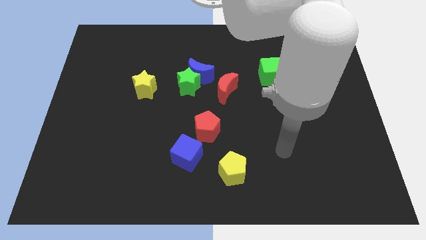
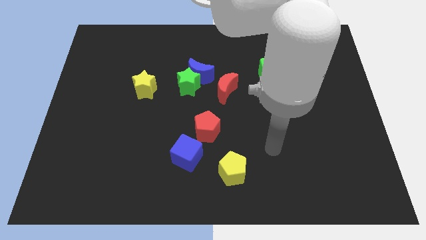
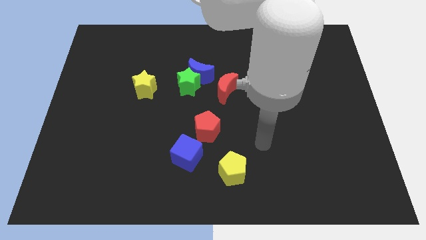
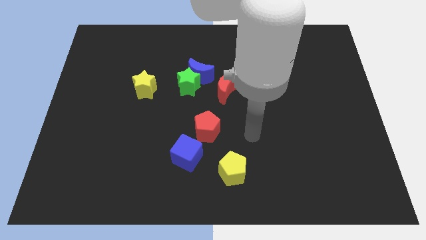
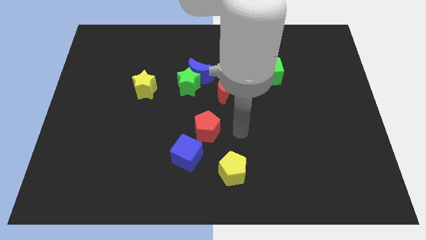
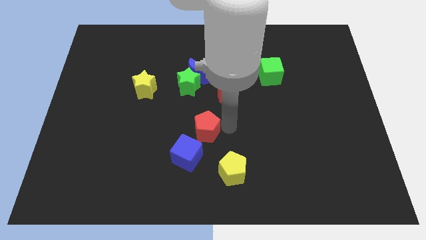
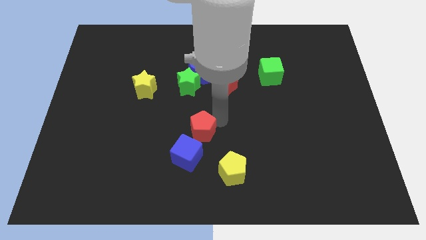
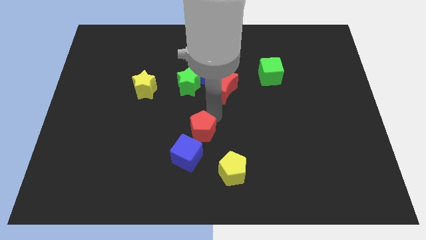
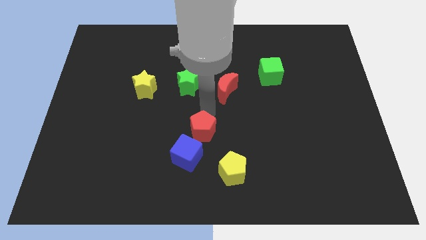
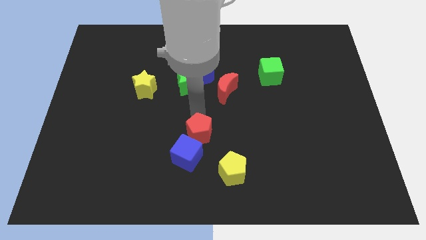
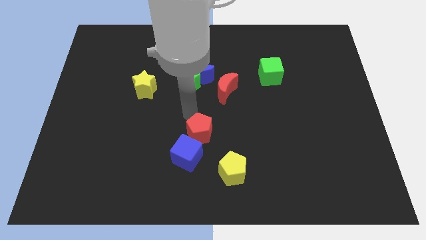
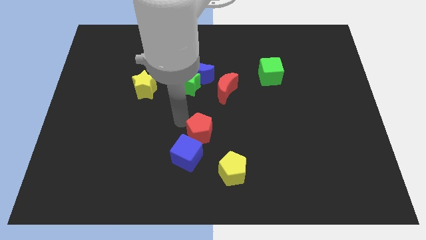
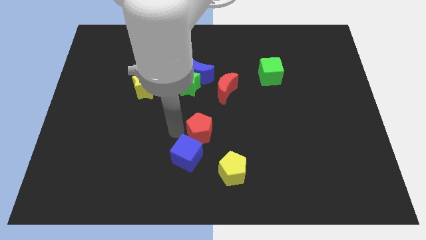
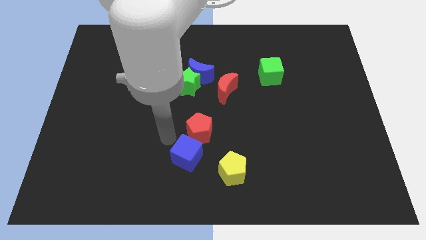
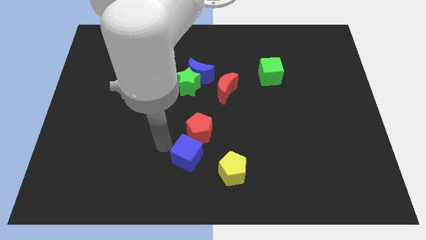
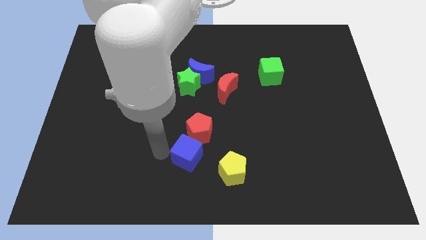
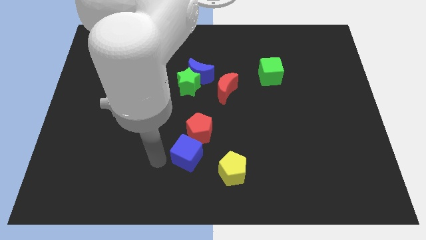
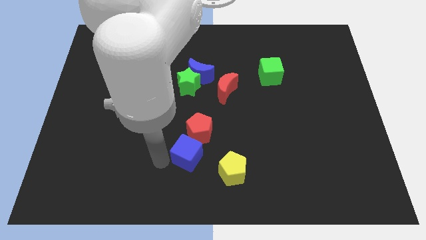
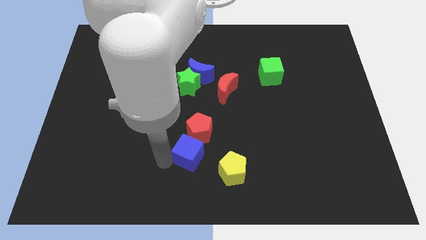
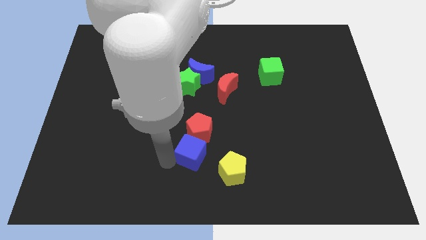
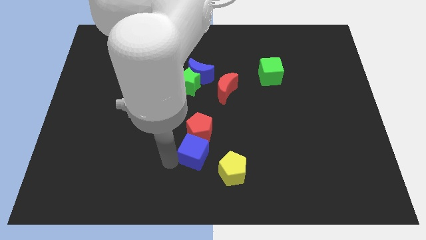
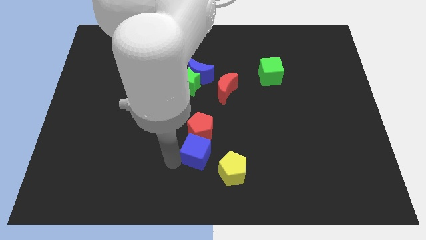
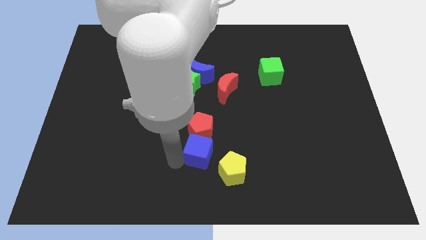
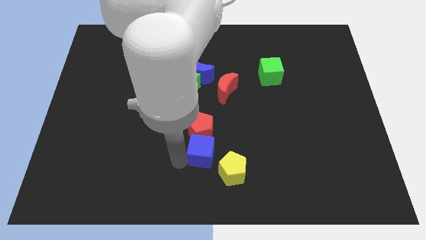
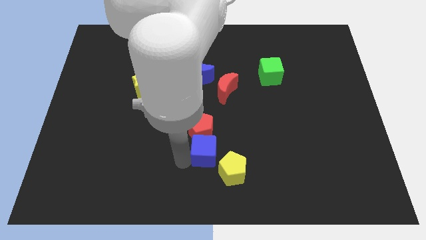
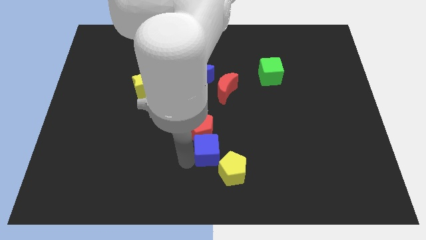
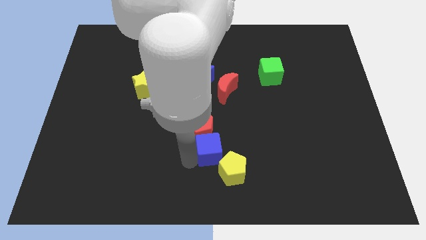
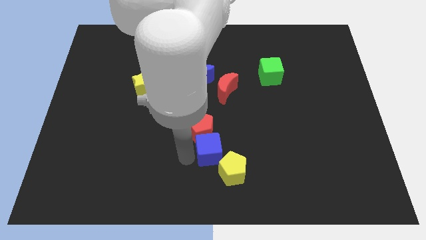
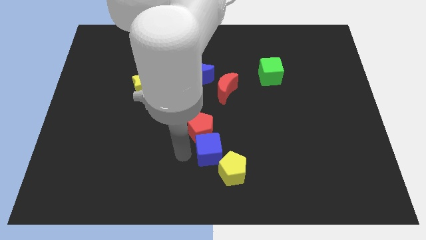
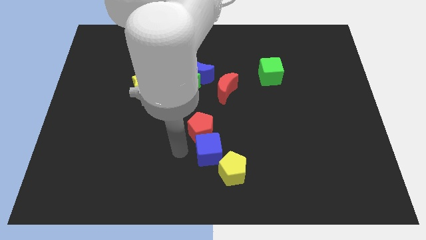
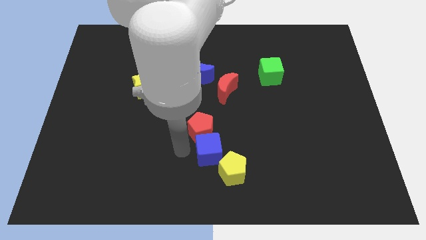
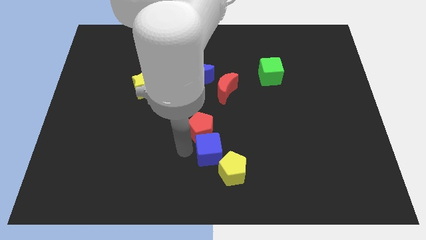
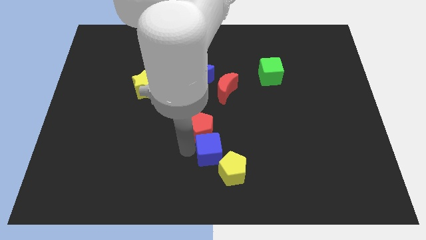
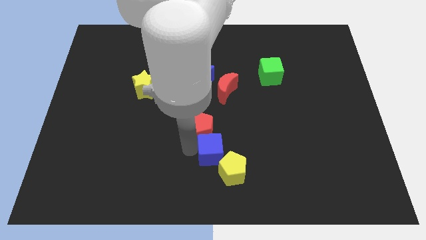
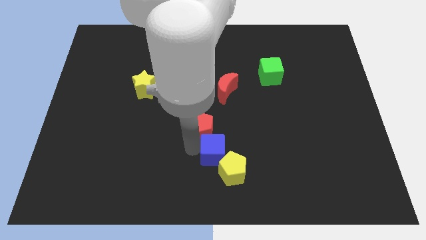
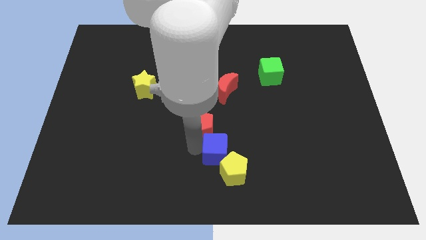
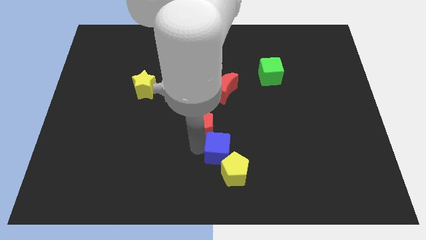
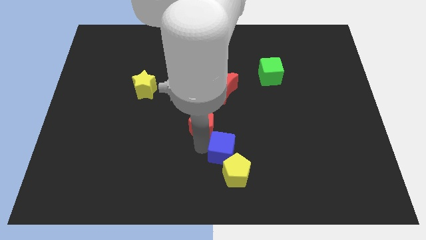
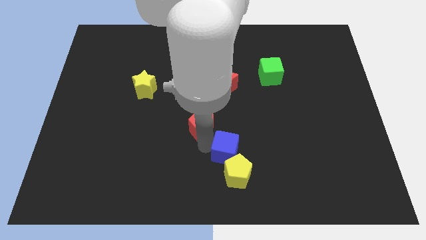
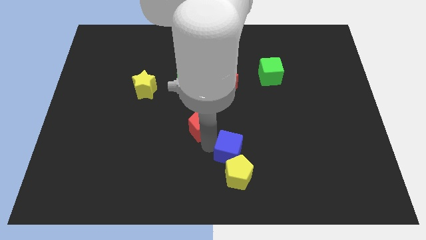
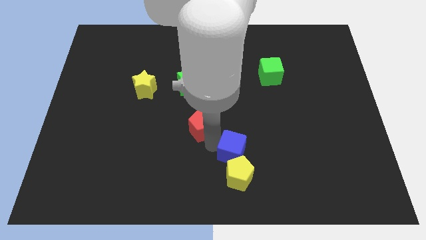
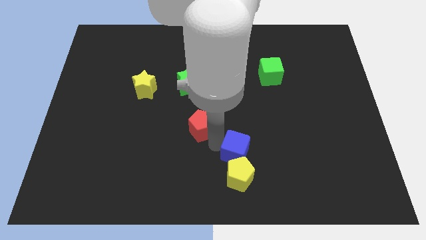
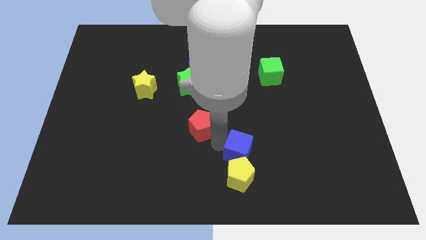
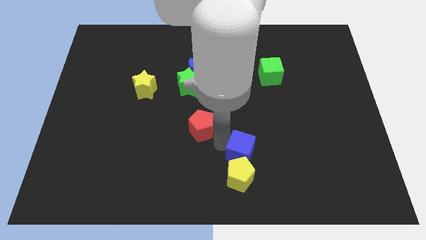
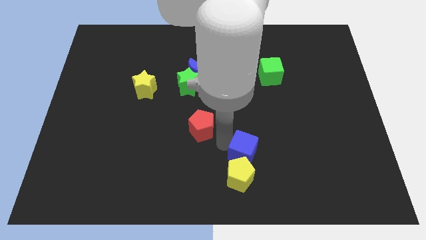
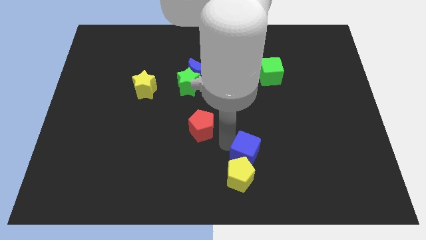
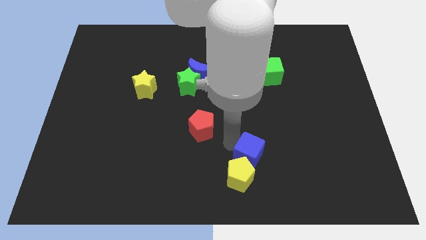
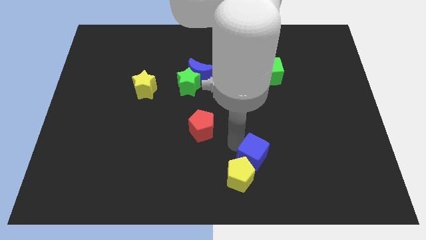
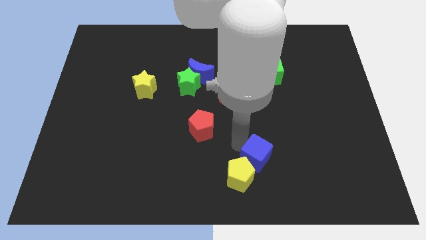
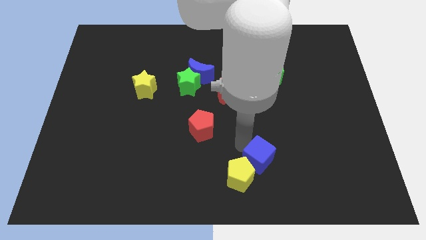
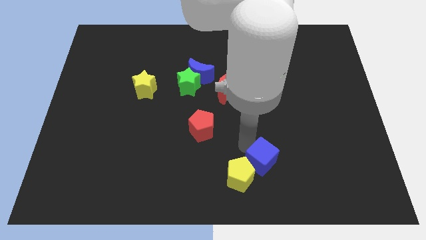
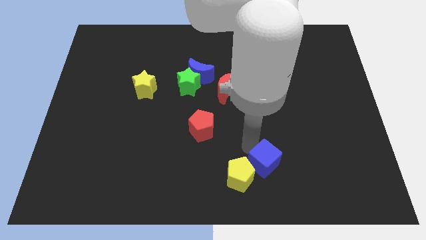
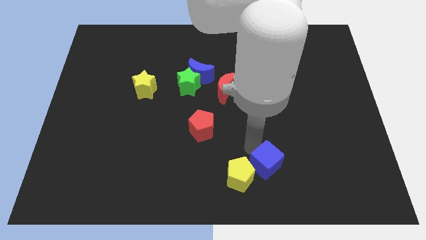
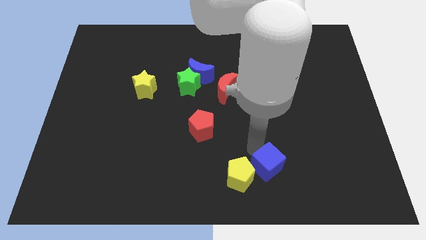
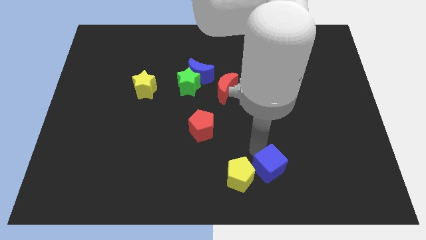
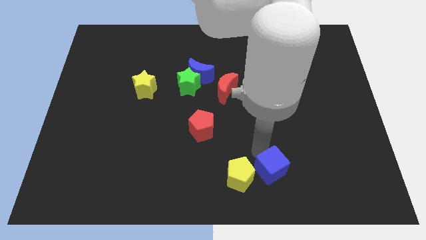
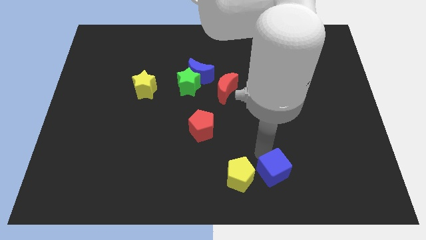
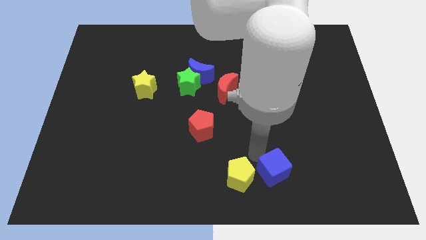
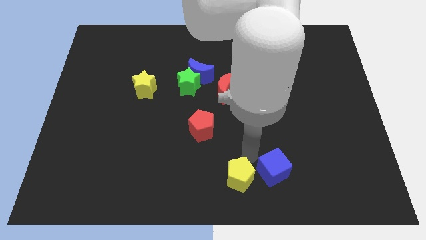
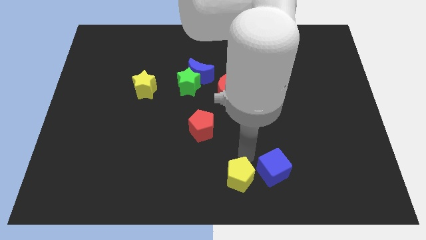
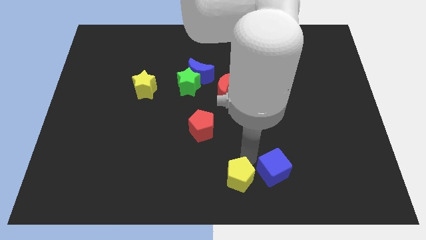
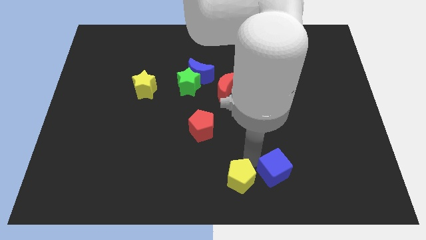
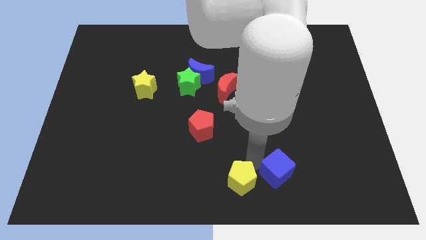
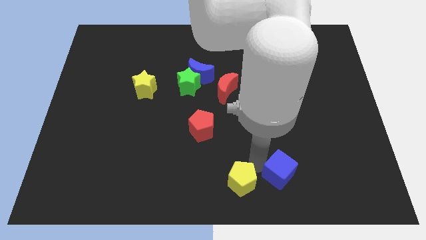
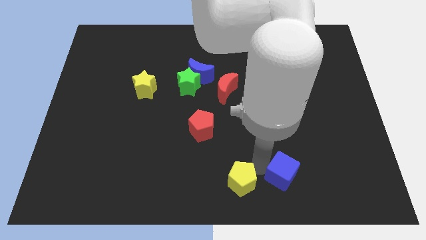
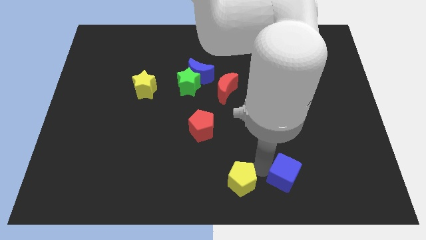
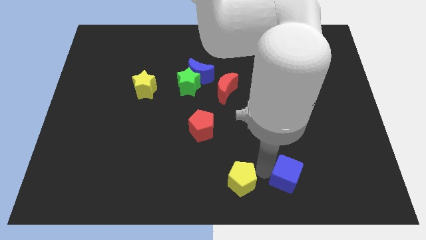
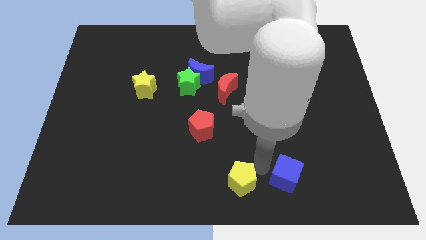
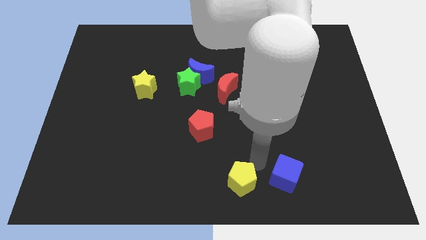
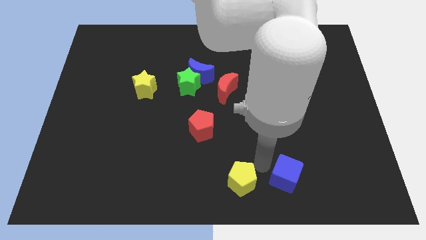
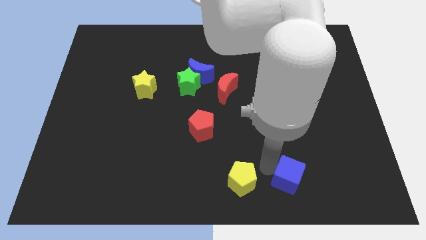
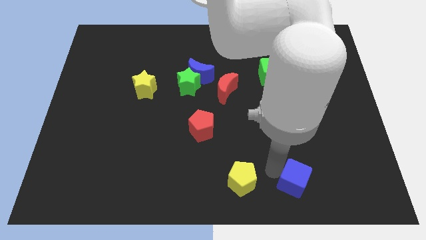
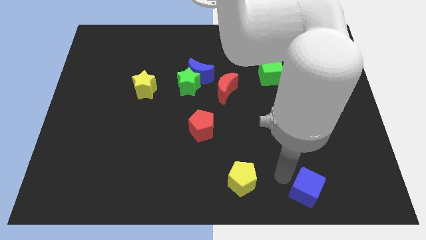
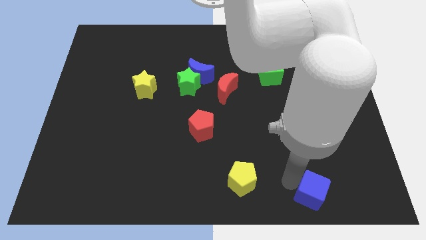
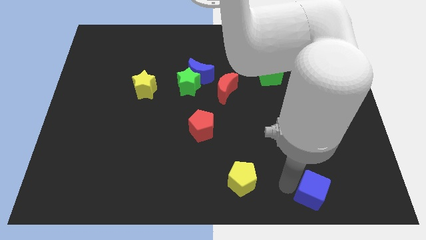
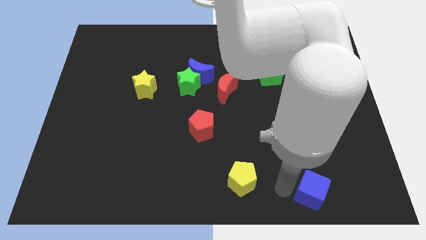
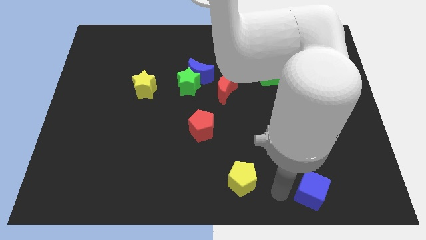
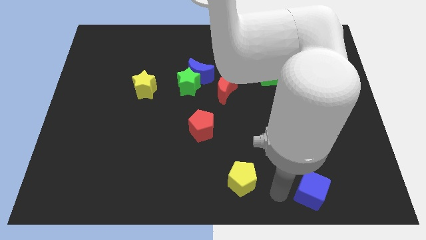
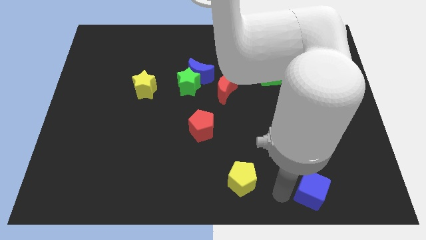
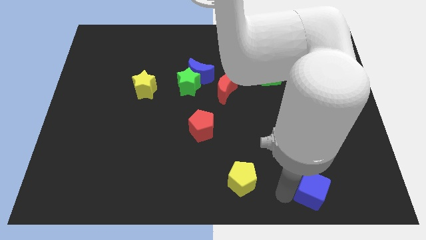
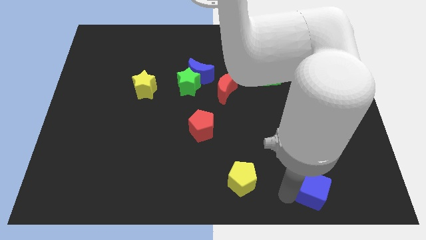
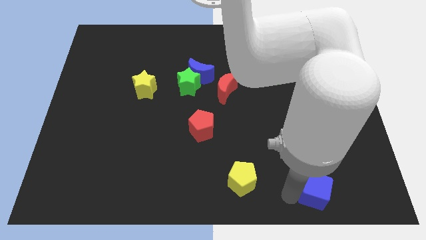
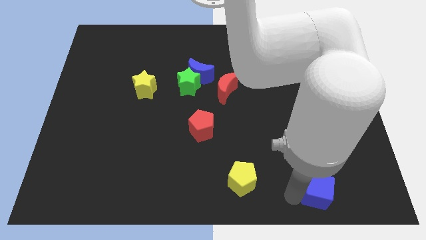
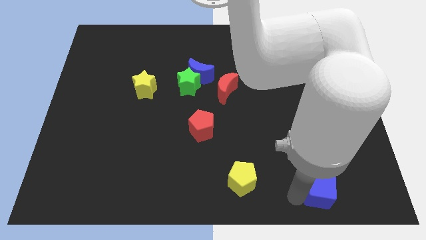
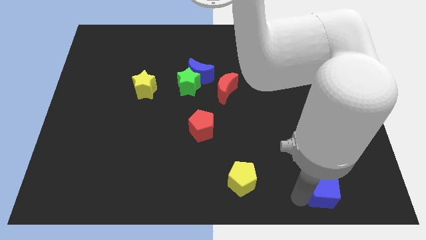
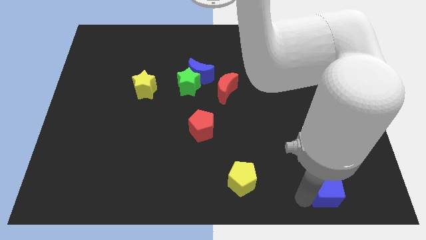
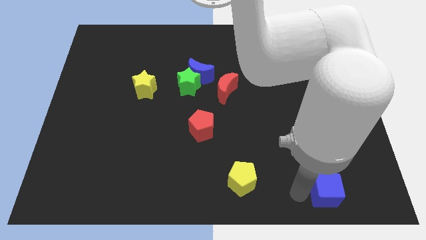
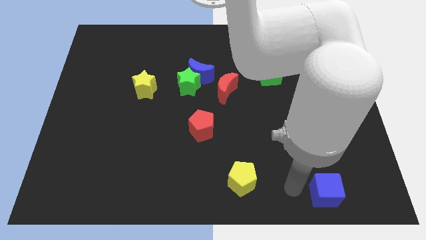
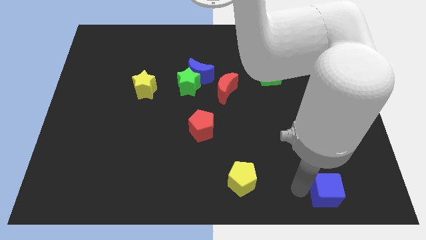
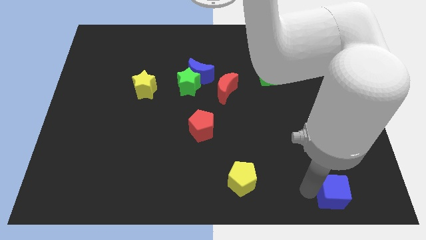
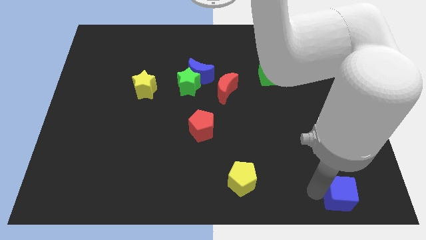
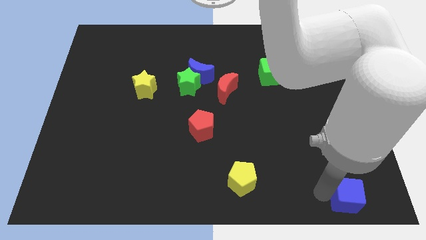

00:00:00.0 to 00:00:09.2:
put the blue cube to the lower right corner
